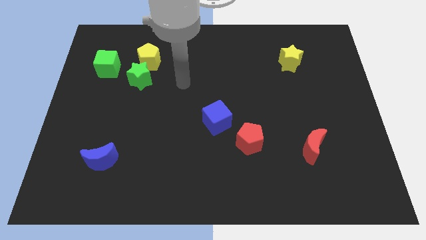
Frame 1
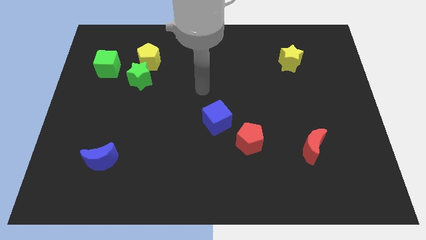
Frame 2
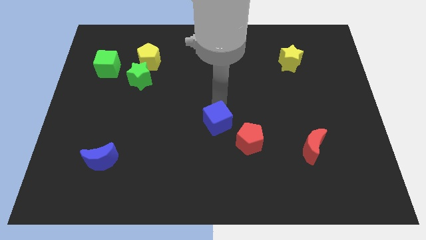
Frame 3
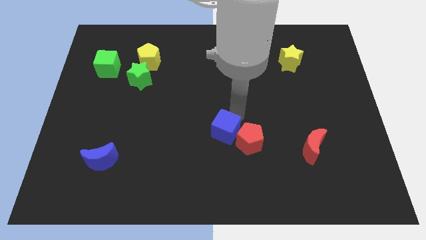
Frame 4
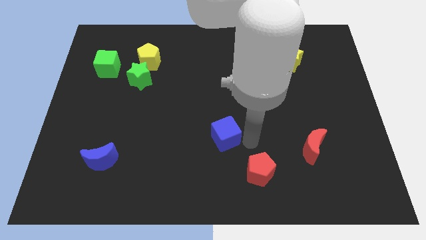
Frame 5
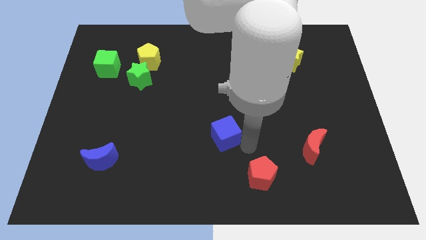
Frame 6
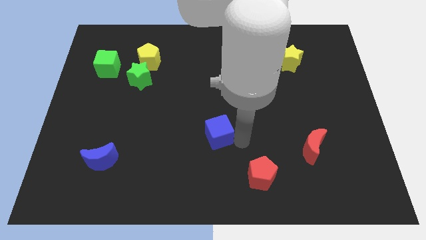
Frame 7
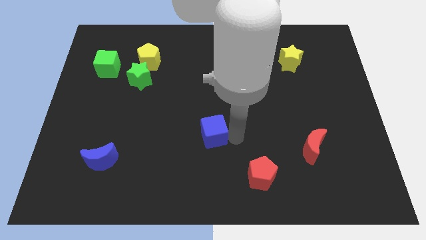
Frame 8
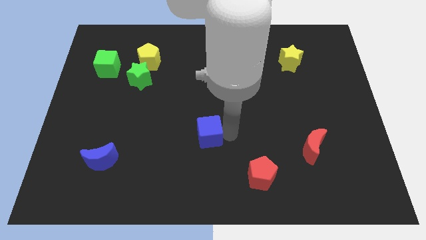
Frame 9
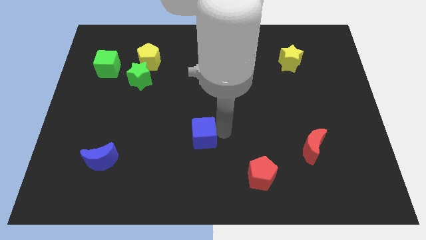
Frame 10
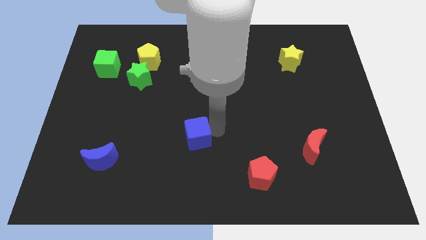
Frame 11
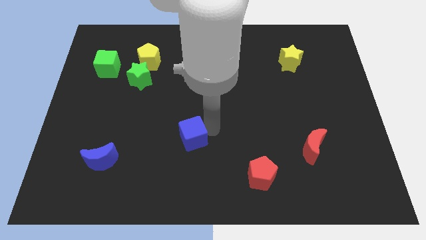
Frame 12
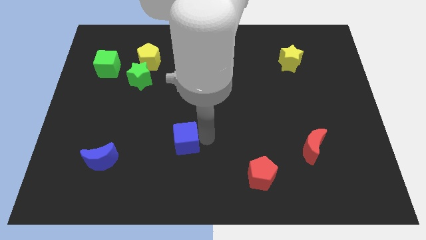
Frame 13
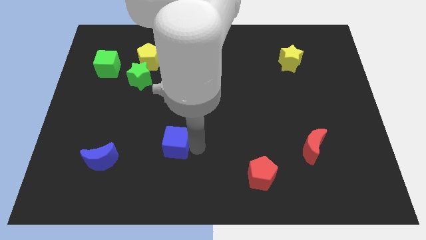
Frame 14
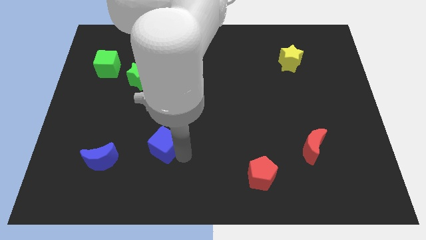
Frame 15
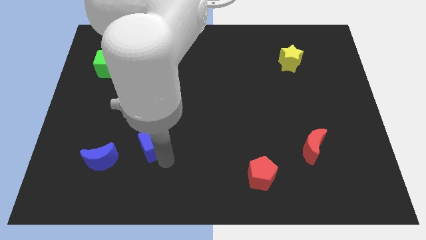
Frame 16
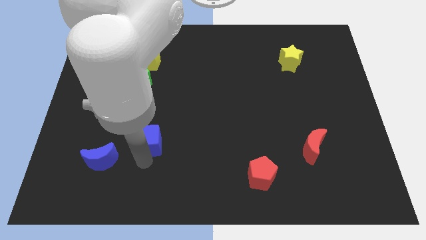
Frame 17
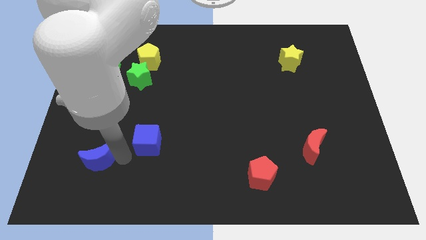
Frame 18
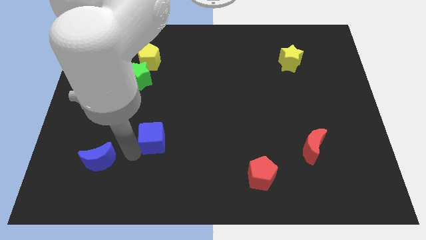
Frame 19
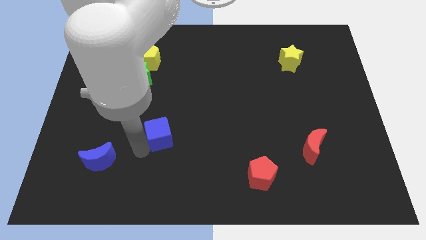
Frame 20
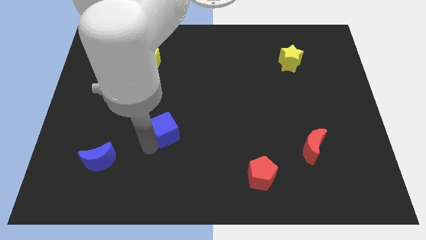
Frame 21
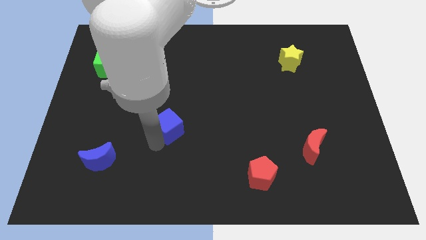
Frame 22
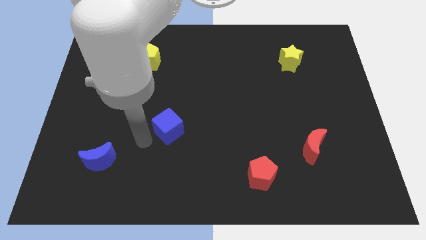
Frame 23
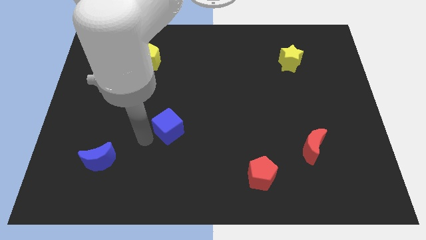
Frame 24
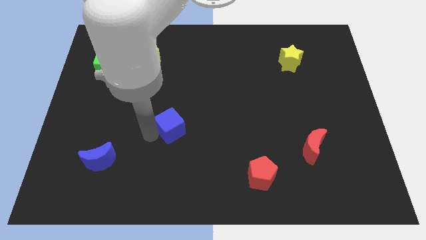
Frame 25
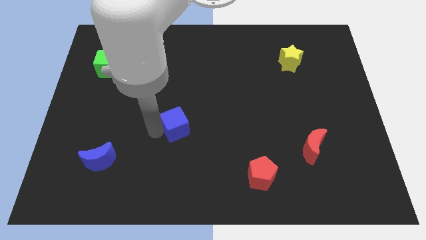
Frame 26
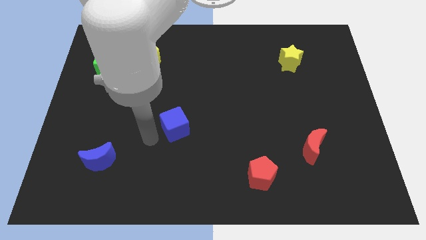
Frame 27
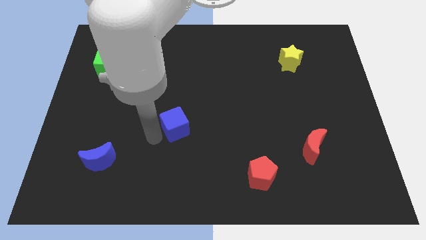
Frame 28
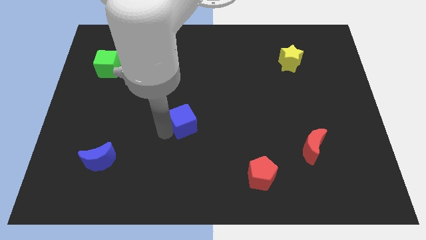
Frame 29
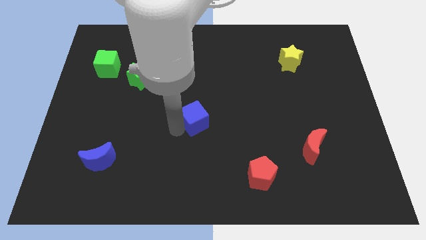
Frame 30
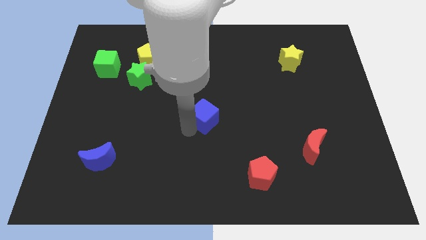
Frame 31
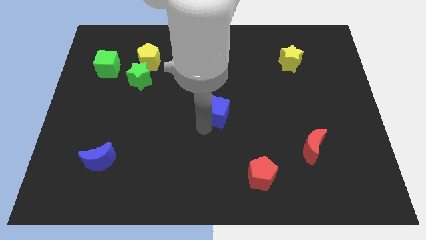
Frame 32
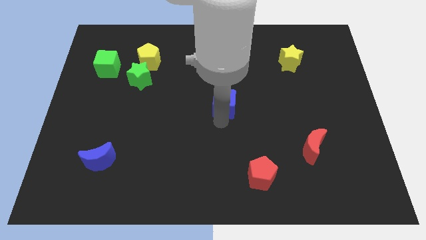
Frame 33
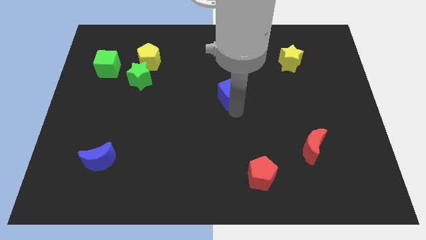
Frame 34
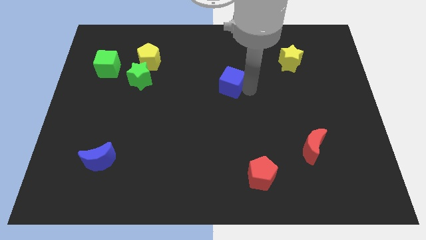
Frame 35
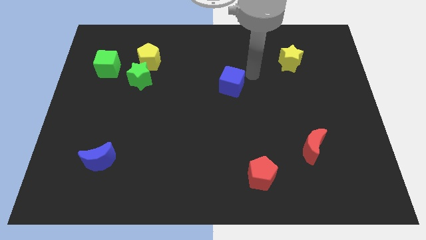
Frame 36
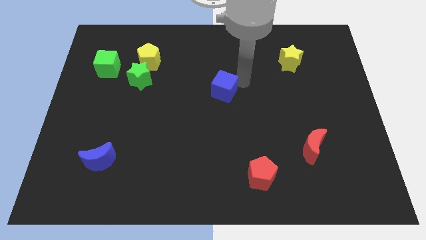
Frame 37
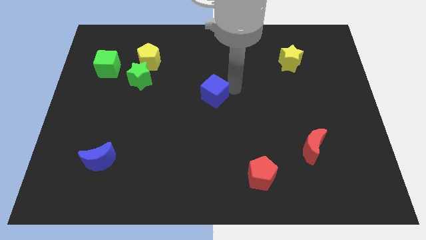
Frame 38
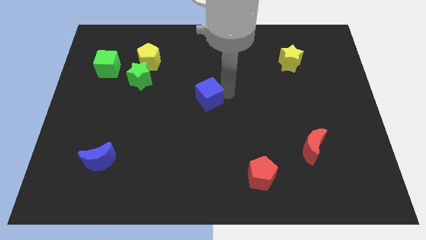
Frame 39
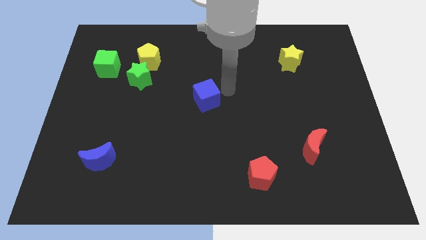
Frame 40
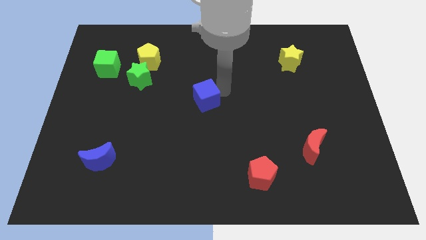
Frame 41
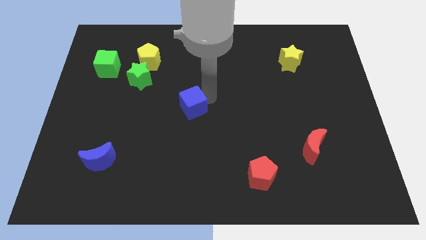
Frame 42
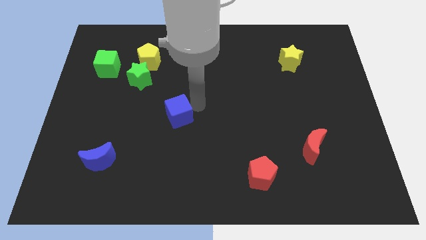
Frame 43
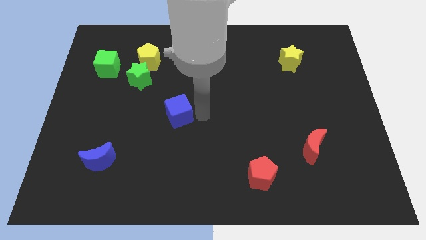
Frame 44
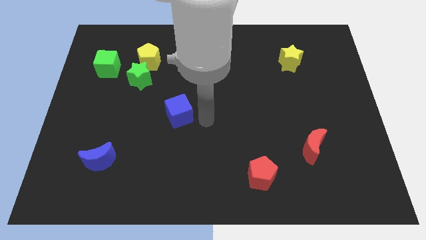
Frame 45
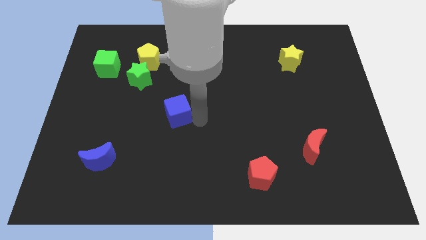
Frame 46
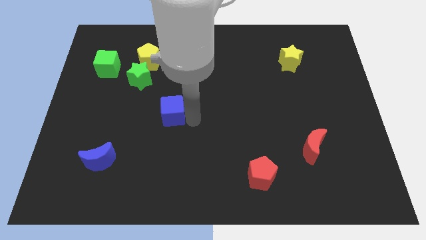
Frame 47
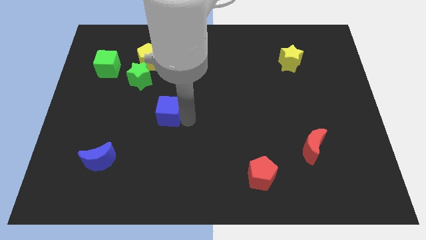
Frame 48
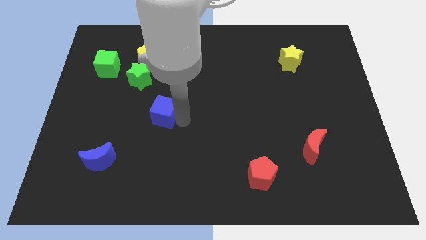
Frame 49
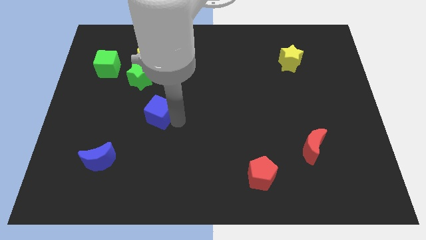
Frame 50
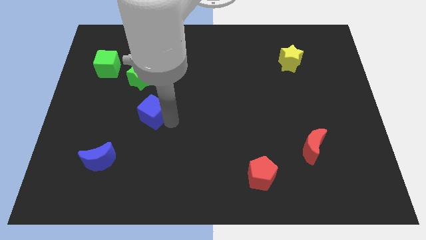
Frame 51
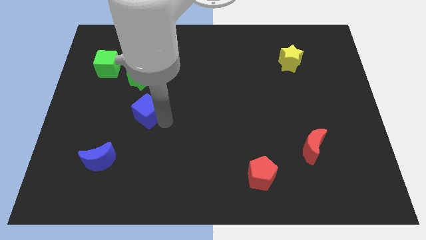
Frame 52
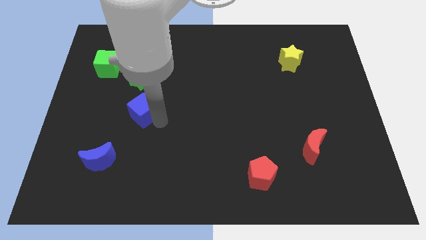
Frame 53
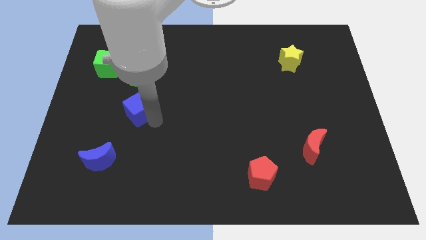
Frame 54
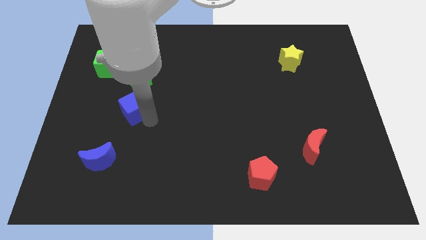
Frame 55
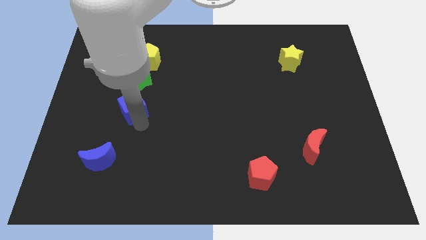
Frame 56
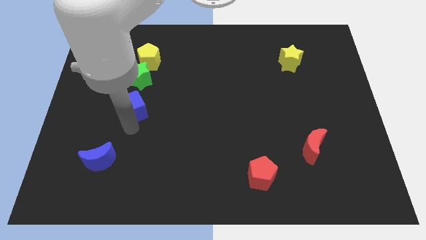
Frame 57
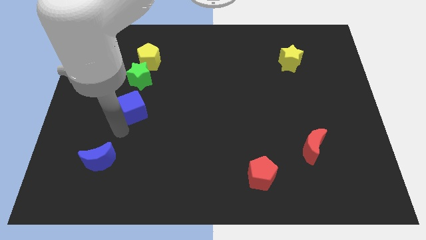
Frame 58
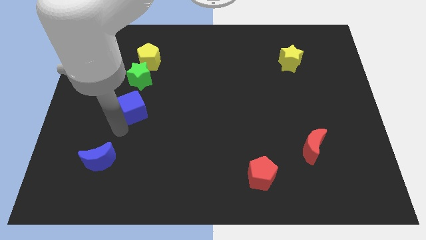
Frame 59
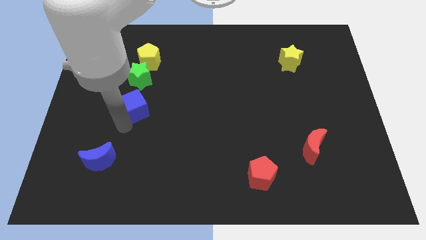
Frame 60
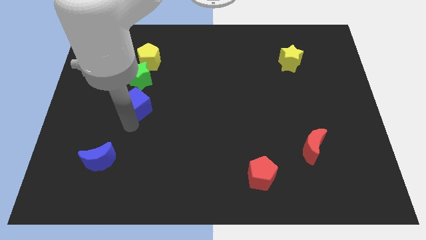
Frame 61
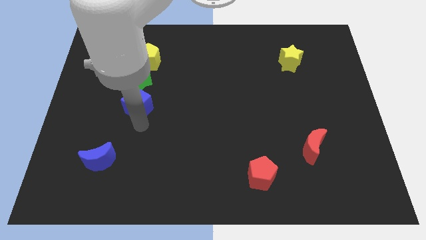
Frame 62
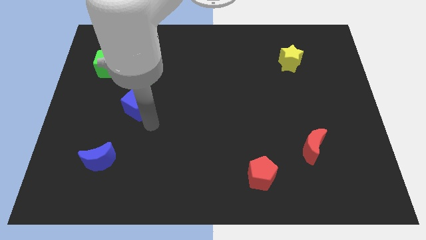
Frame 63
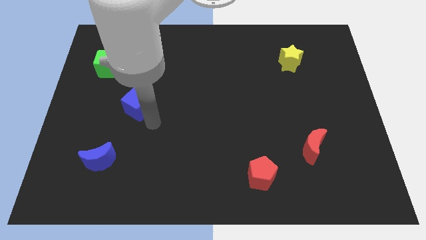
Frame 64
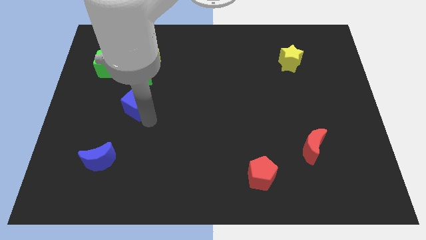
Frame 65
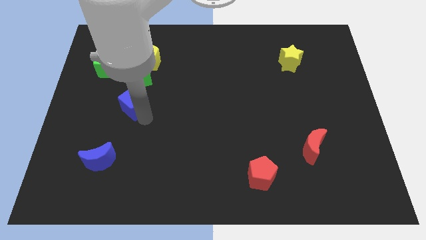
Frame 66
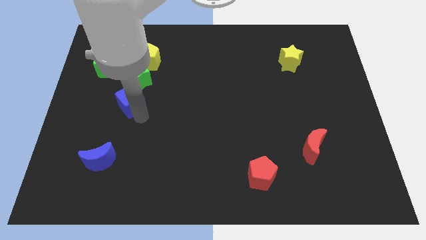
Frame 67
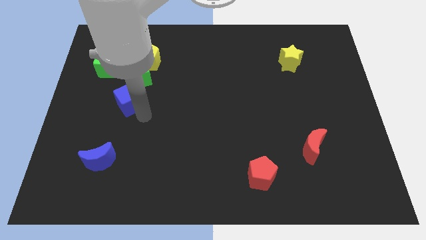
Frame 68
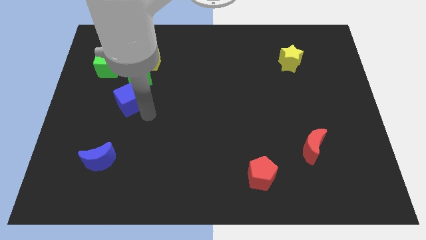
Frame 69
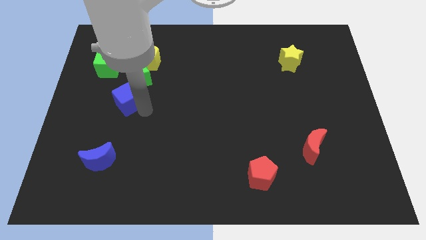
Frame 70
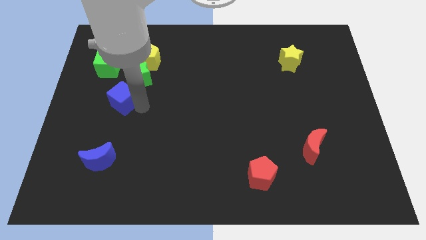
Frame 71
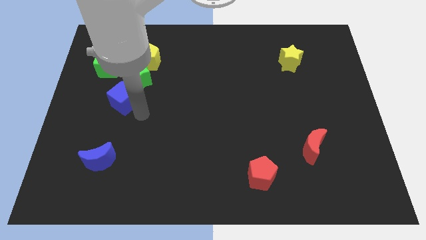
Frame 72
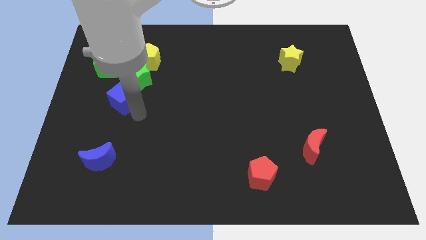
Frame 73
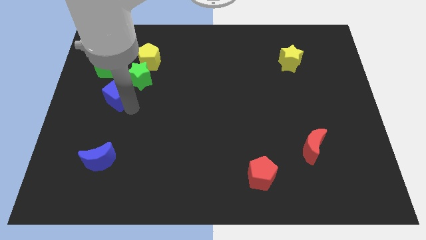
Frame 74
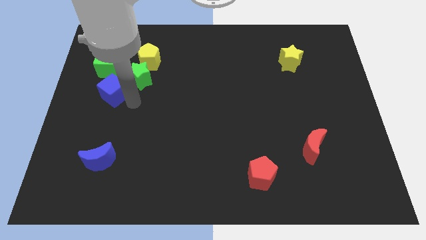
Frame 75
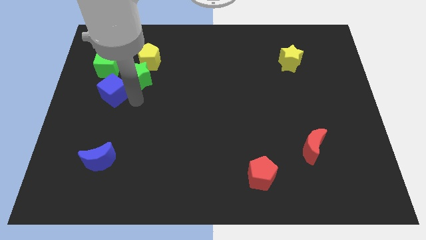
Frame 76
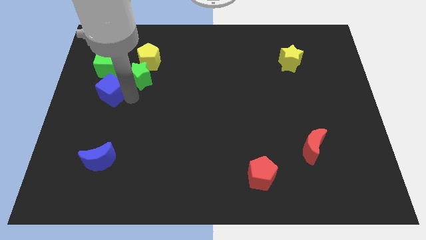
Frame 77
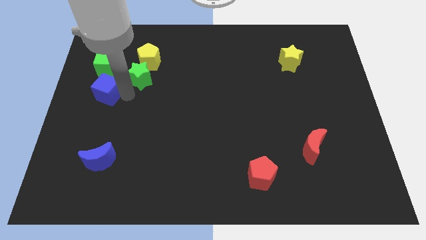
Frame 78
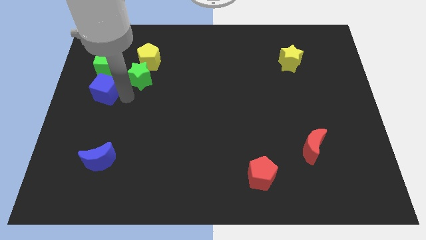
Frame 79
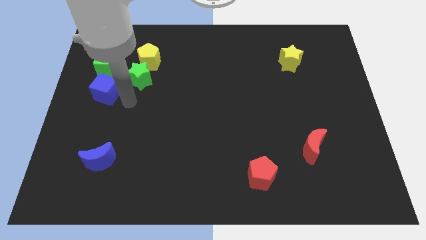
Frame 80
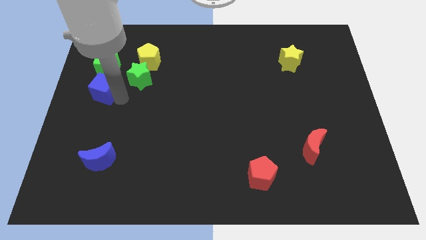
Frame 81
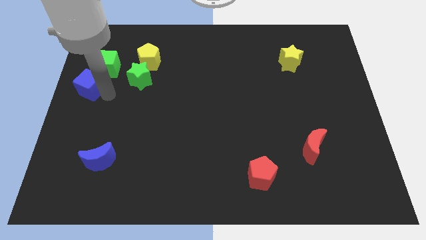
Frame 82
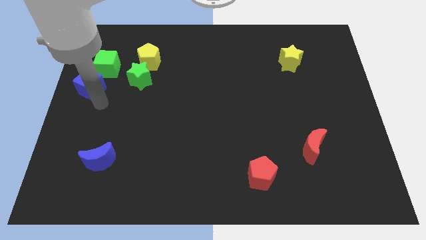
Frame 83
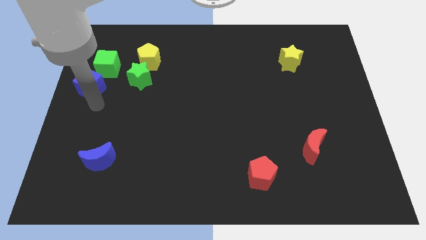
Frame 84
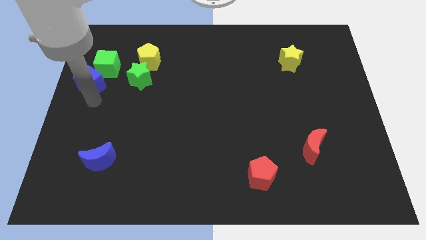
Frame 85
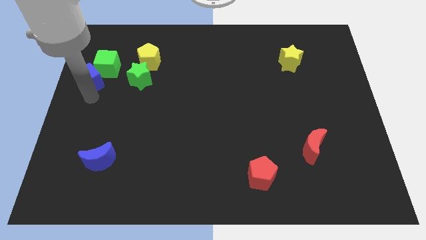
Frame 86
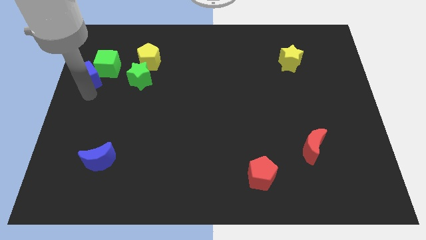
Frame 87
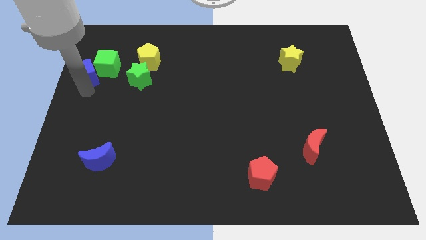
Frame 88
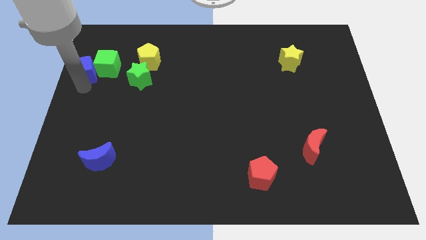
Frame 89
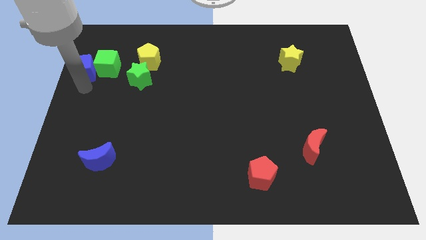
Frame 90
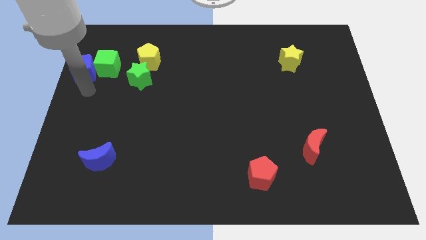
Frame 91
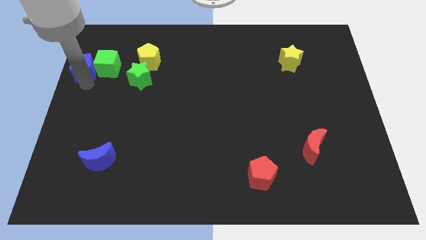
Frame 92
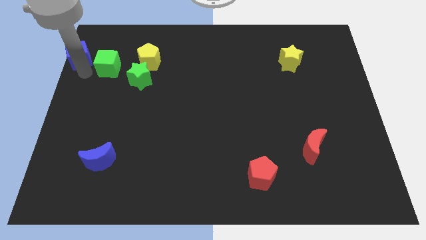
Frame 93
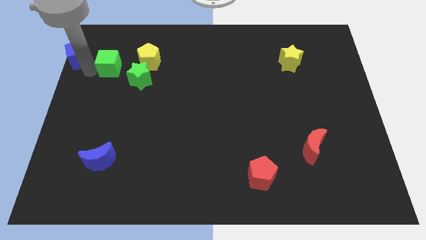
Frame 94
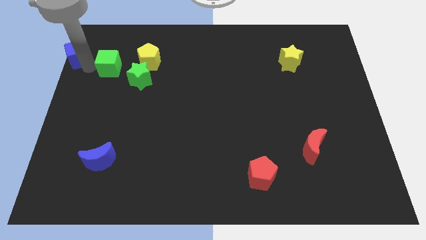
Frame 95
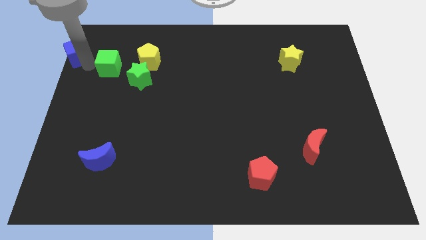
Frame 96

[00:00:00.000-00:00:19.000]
push the blue cube to the top left of the board
